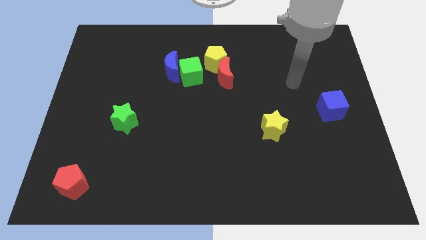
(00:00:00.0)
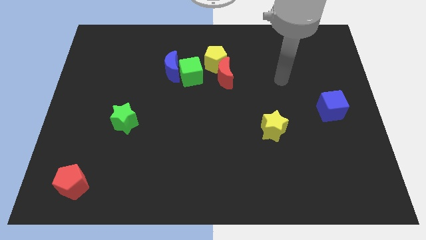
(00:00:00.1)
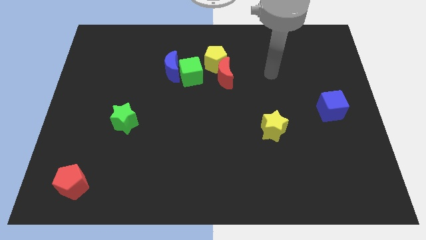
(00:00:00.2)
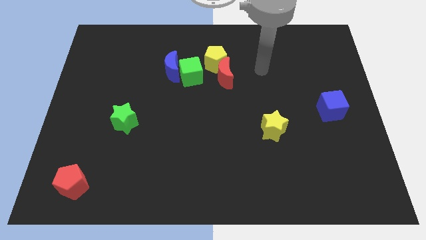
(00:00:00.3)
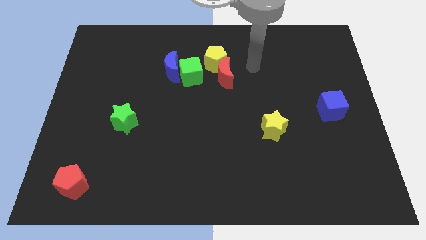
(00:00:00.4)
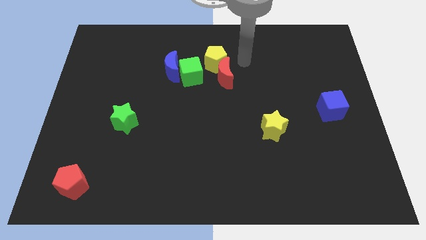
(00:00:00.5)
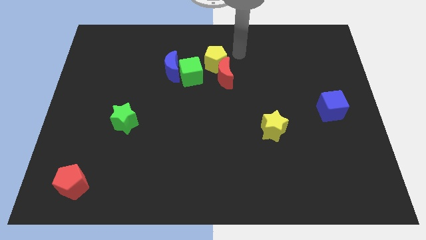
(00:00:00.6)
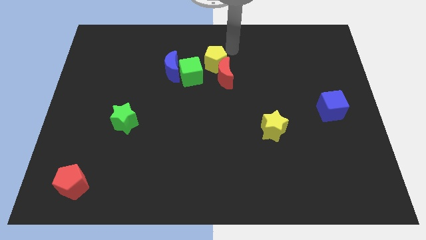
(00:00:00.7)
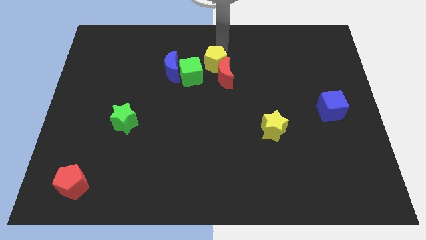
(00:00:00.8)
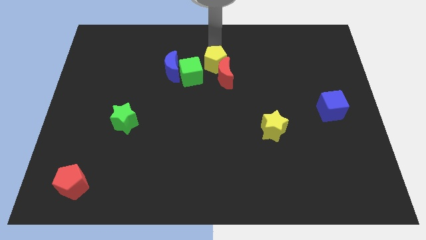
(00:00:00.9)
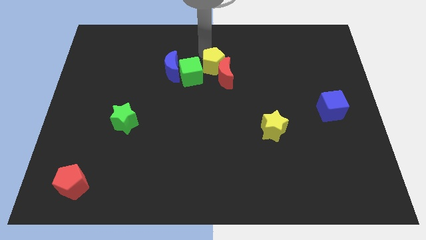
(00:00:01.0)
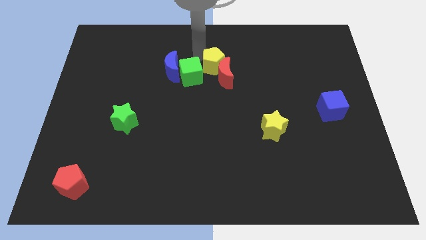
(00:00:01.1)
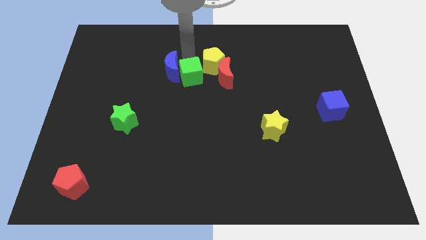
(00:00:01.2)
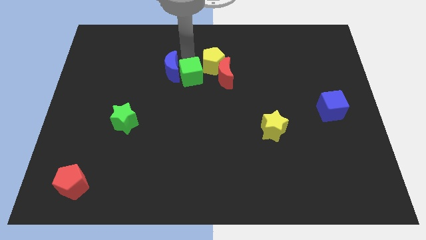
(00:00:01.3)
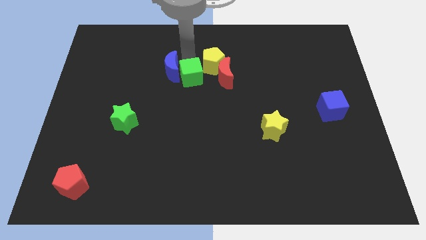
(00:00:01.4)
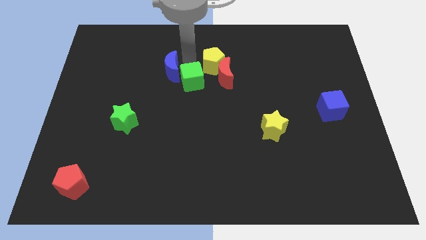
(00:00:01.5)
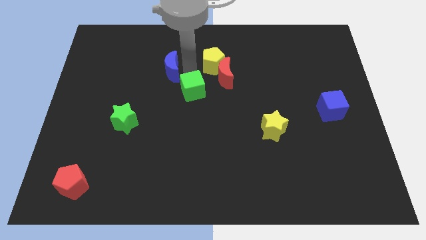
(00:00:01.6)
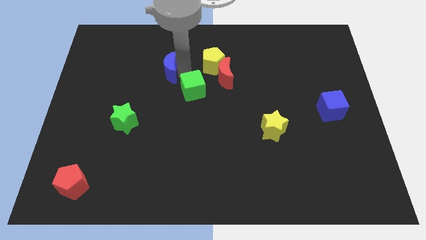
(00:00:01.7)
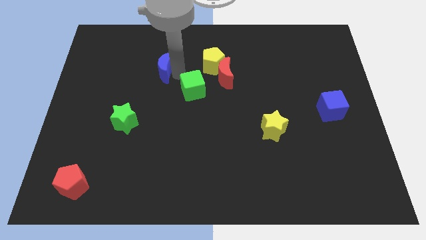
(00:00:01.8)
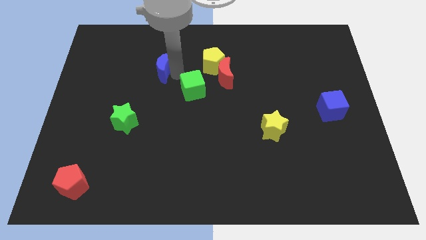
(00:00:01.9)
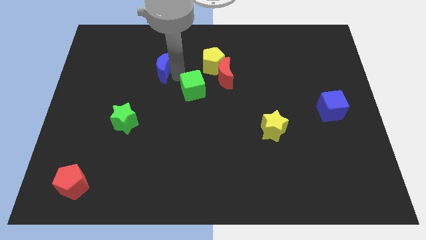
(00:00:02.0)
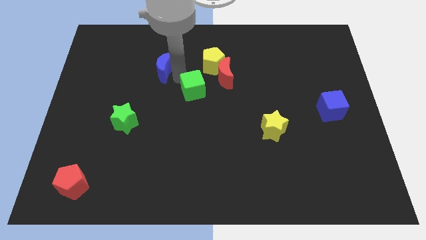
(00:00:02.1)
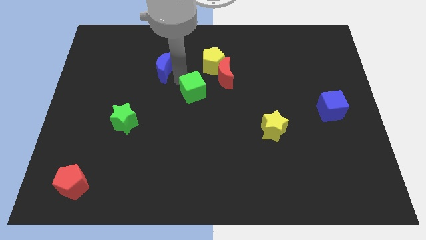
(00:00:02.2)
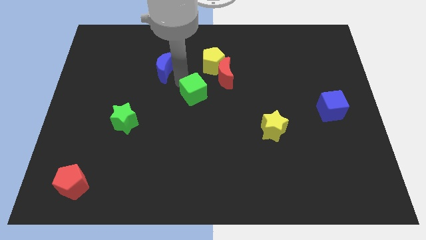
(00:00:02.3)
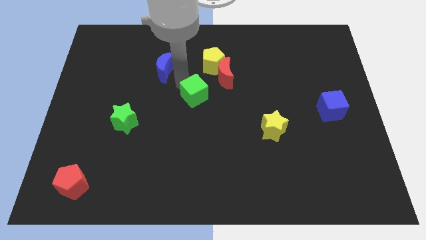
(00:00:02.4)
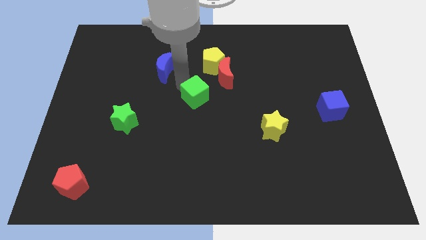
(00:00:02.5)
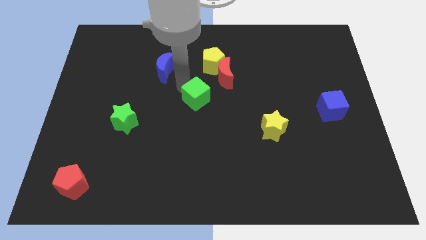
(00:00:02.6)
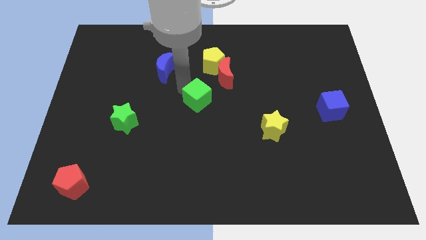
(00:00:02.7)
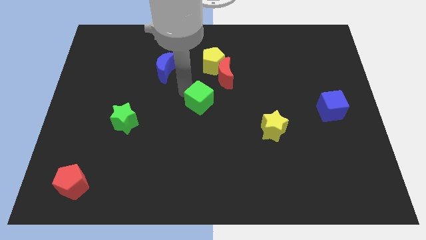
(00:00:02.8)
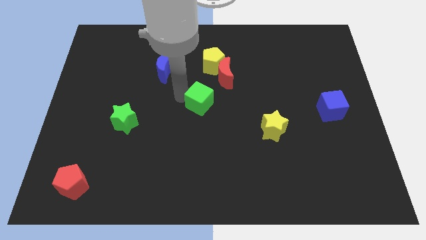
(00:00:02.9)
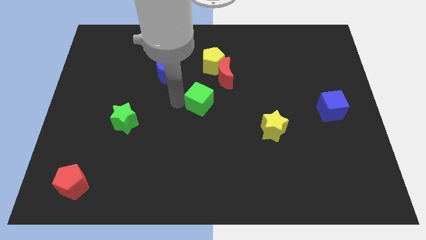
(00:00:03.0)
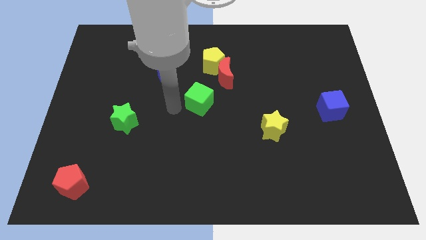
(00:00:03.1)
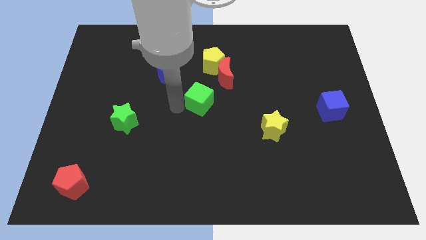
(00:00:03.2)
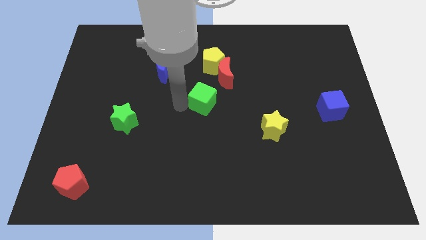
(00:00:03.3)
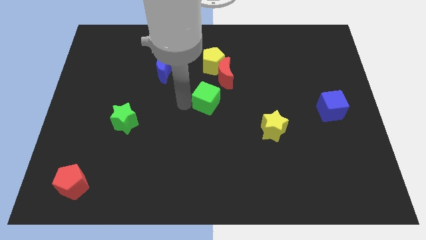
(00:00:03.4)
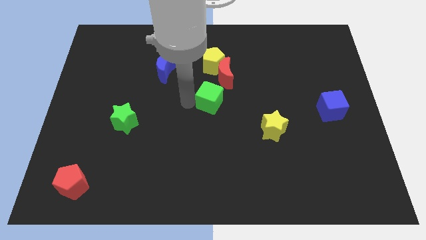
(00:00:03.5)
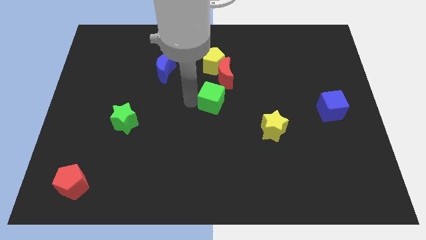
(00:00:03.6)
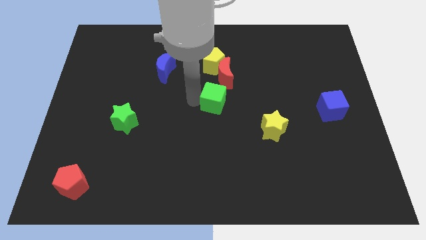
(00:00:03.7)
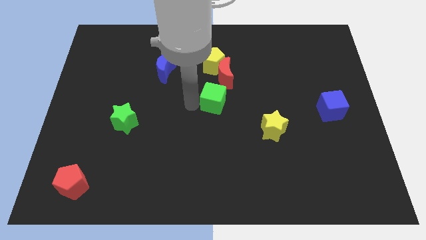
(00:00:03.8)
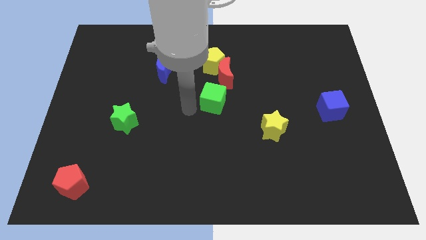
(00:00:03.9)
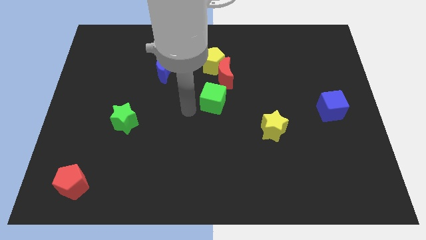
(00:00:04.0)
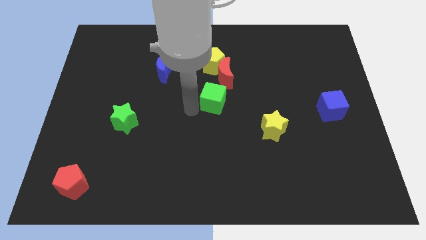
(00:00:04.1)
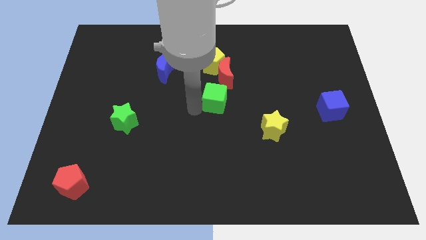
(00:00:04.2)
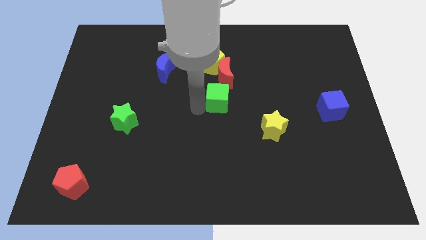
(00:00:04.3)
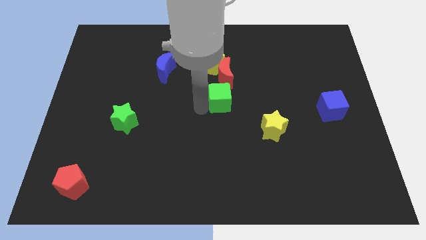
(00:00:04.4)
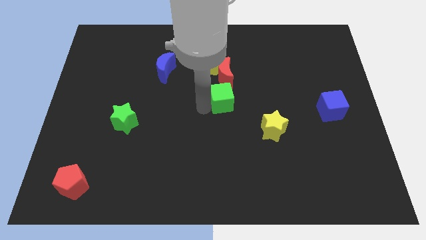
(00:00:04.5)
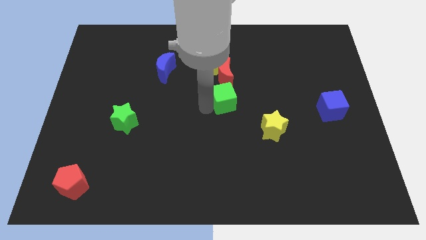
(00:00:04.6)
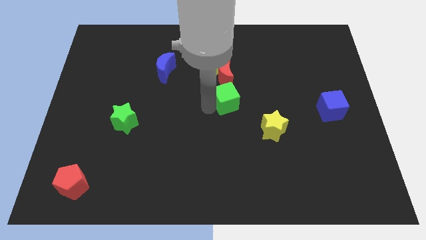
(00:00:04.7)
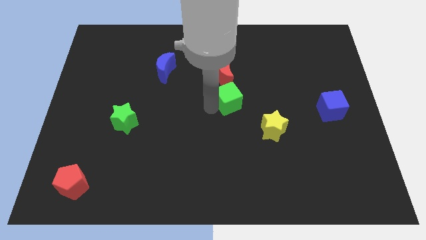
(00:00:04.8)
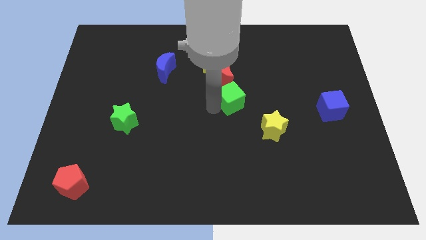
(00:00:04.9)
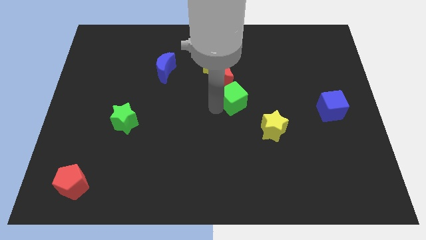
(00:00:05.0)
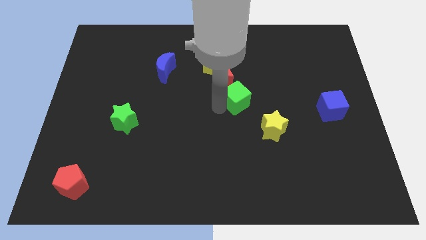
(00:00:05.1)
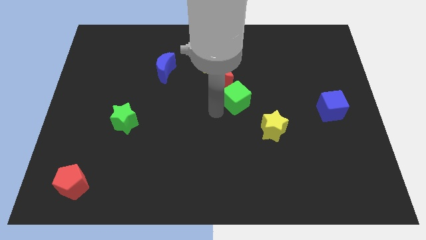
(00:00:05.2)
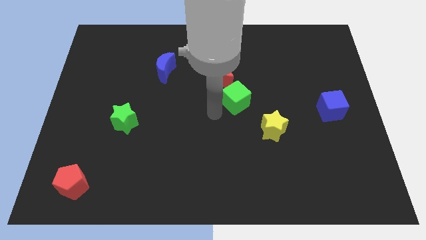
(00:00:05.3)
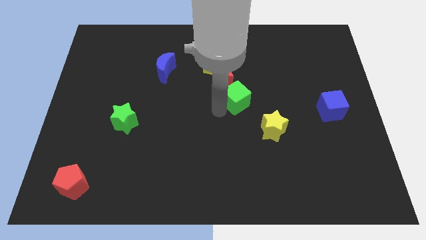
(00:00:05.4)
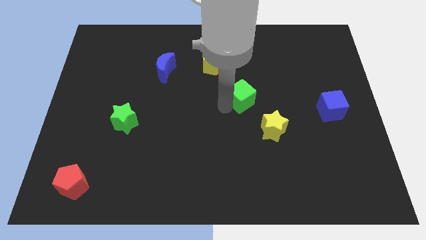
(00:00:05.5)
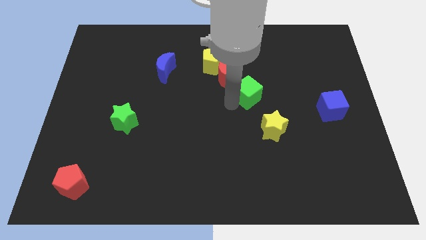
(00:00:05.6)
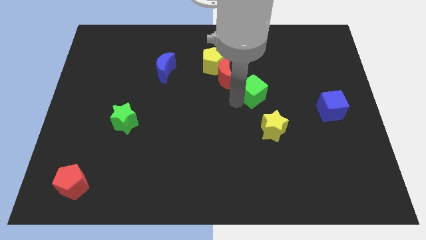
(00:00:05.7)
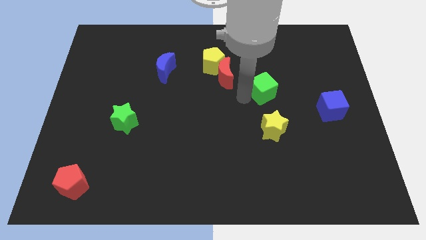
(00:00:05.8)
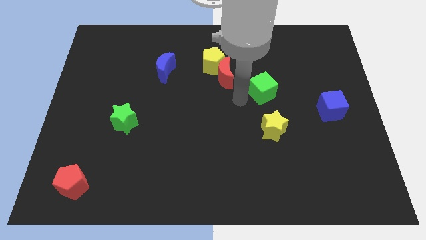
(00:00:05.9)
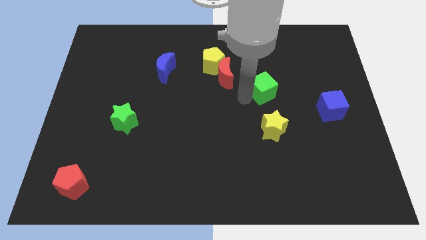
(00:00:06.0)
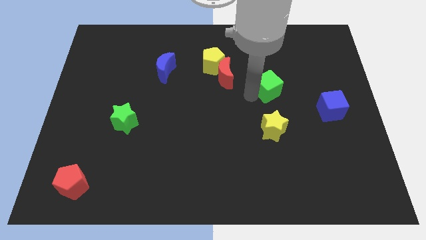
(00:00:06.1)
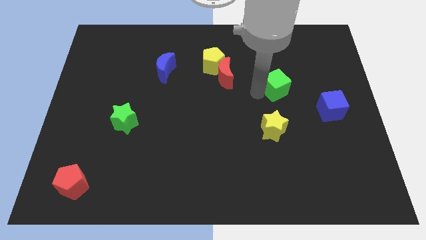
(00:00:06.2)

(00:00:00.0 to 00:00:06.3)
move the green cube right

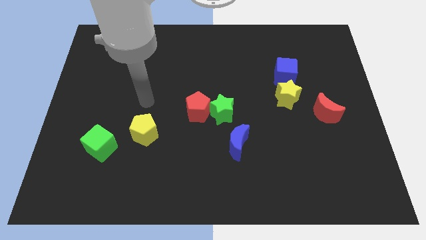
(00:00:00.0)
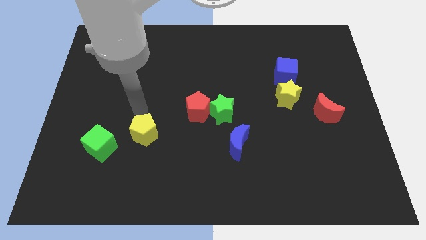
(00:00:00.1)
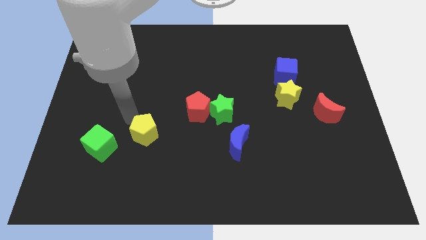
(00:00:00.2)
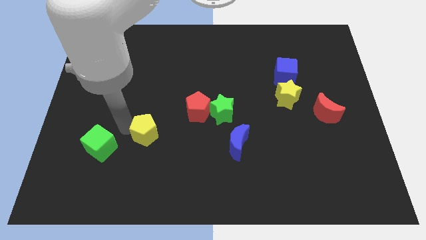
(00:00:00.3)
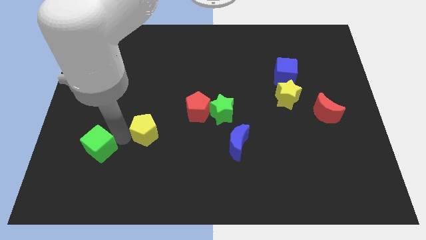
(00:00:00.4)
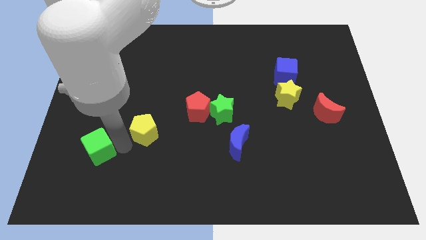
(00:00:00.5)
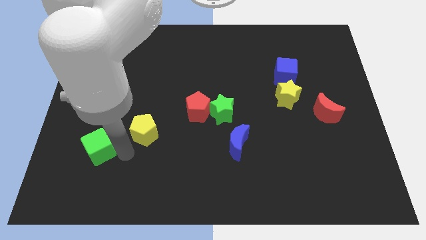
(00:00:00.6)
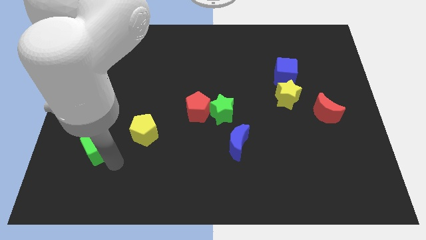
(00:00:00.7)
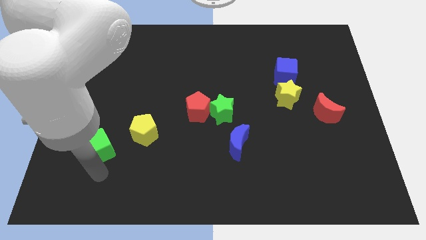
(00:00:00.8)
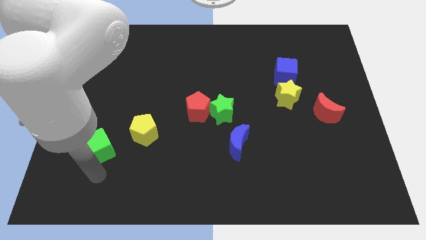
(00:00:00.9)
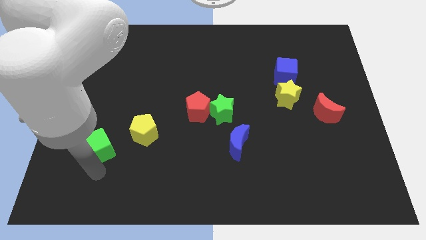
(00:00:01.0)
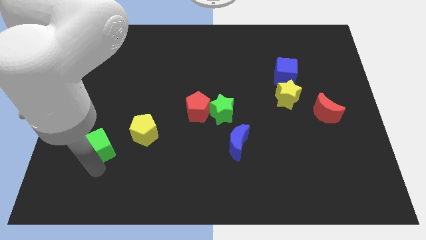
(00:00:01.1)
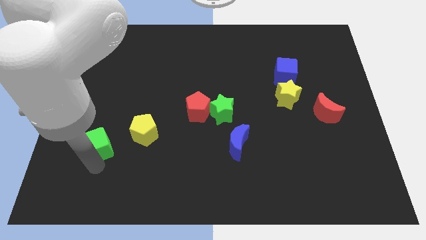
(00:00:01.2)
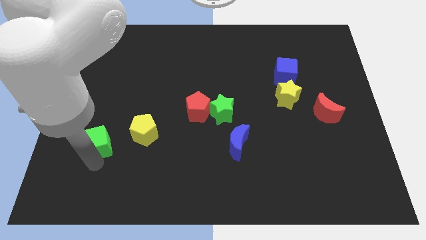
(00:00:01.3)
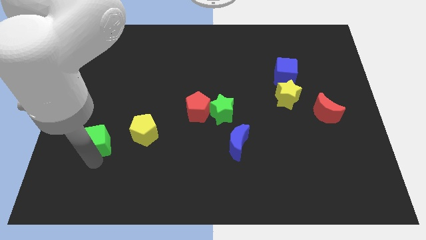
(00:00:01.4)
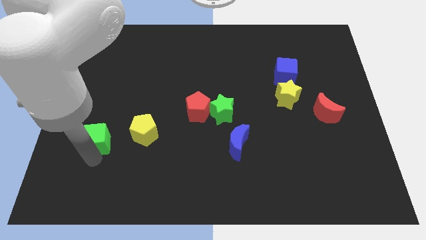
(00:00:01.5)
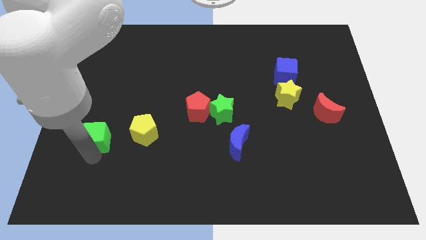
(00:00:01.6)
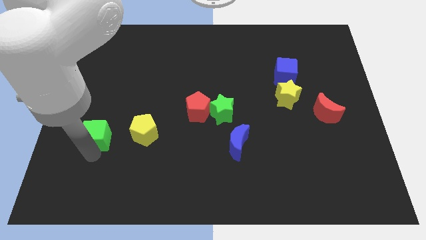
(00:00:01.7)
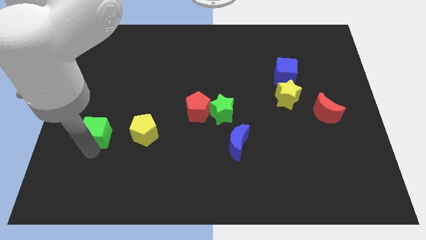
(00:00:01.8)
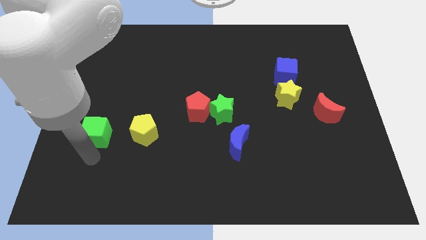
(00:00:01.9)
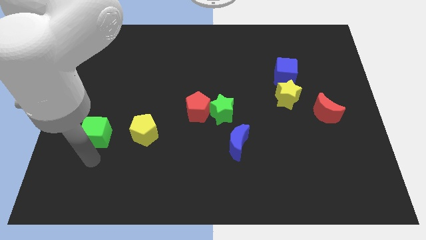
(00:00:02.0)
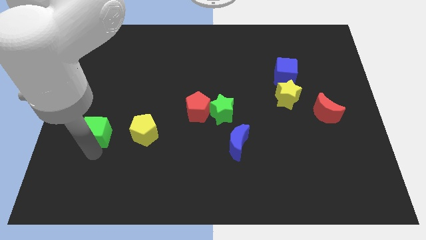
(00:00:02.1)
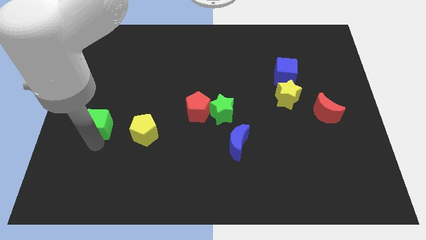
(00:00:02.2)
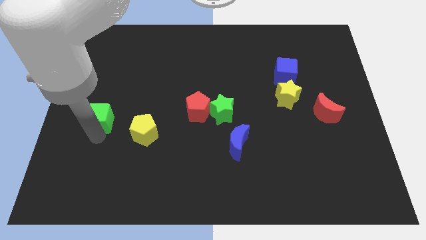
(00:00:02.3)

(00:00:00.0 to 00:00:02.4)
push the green cube a little bit up
